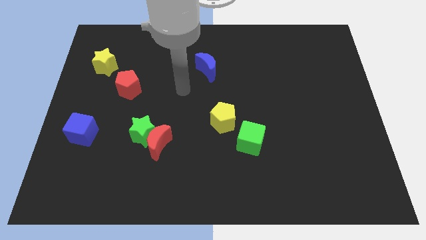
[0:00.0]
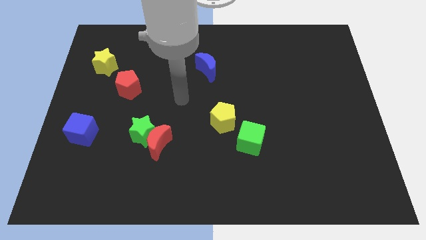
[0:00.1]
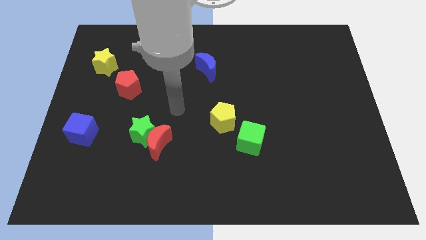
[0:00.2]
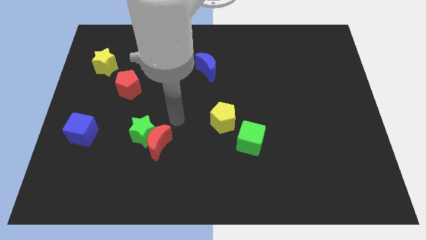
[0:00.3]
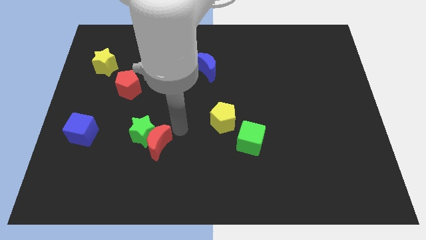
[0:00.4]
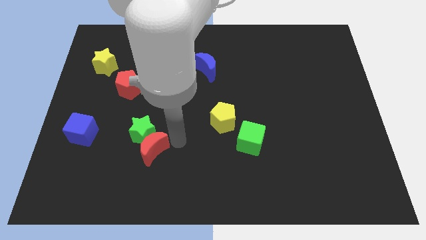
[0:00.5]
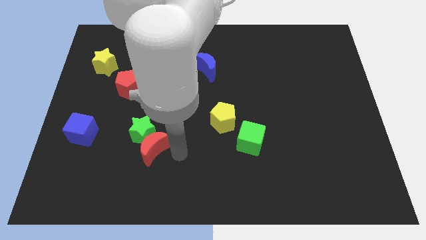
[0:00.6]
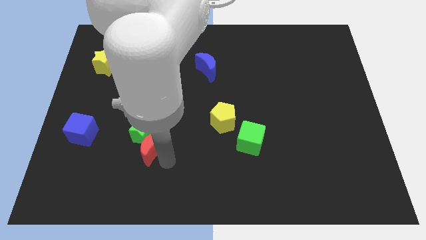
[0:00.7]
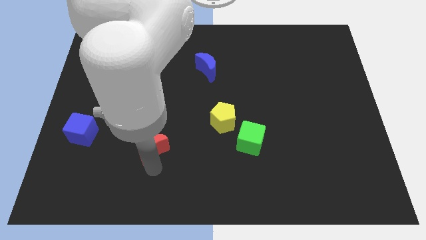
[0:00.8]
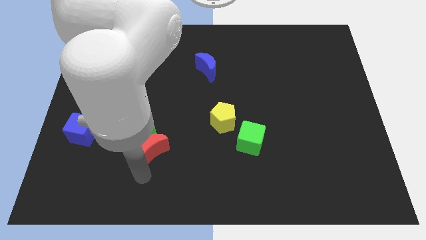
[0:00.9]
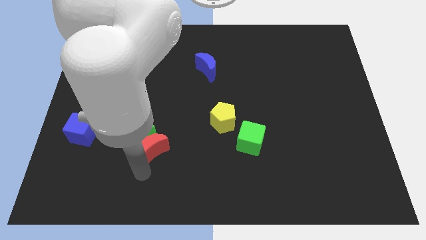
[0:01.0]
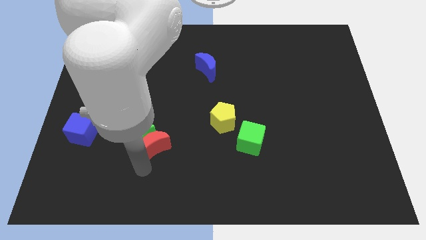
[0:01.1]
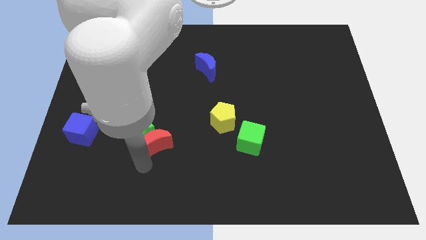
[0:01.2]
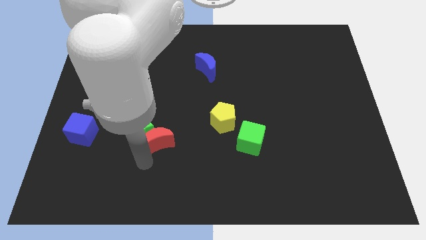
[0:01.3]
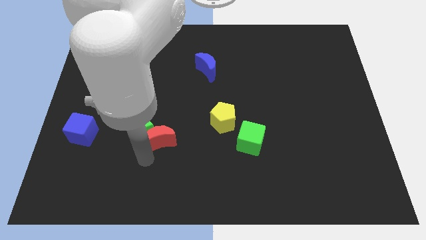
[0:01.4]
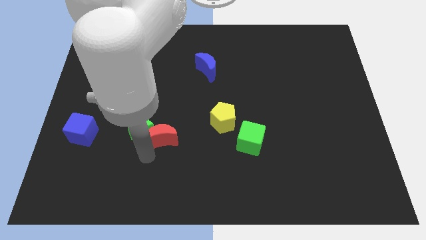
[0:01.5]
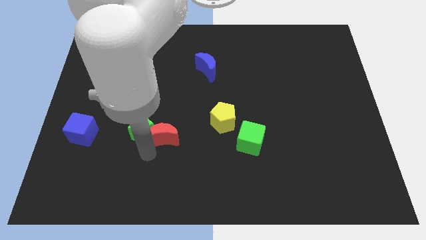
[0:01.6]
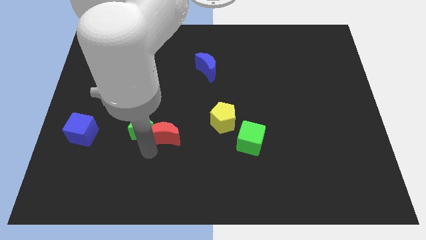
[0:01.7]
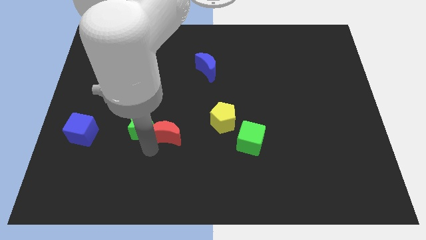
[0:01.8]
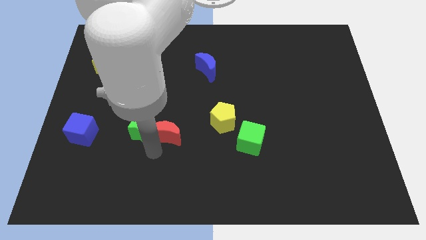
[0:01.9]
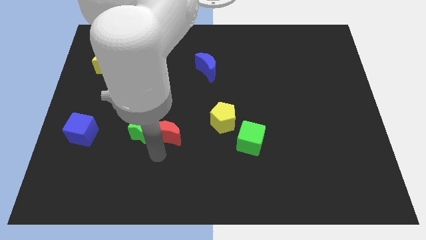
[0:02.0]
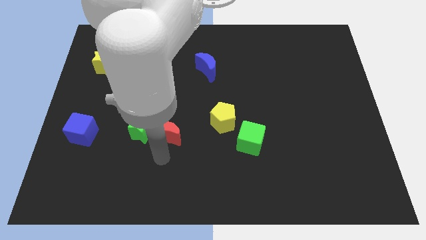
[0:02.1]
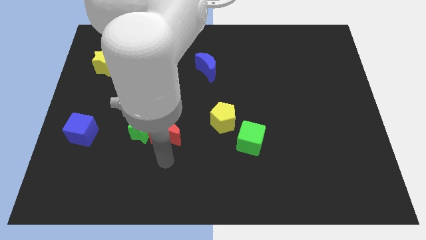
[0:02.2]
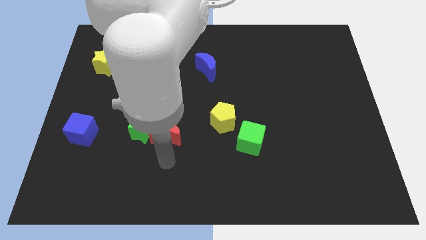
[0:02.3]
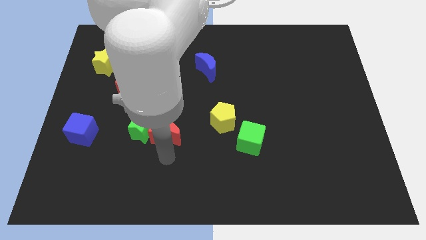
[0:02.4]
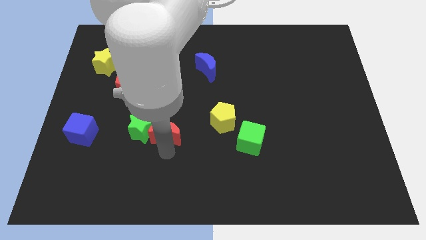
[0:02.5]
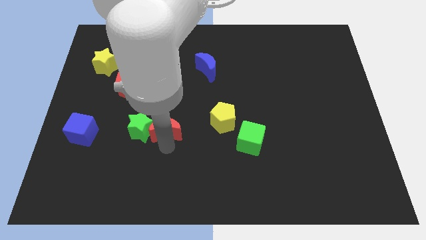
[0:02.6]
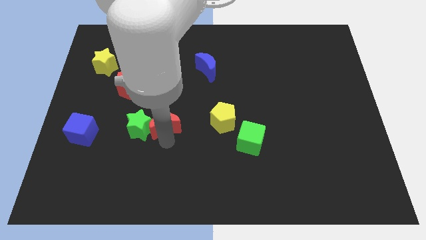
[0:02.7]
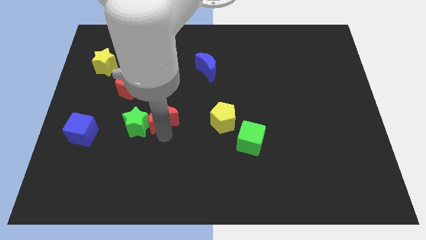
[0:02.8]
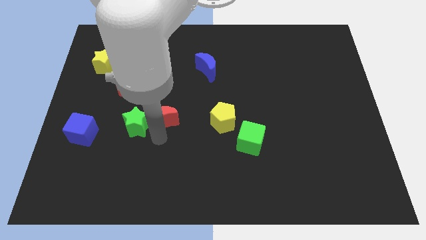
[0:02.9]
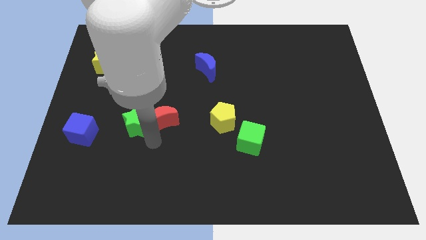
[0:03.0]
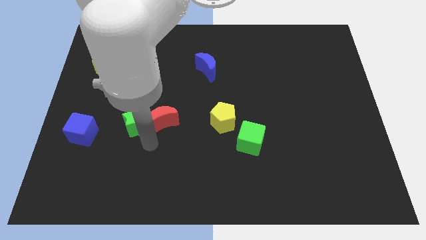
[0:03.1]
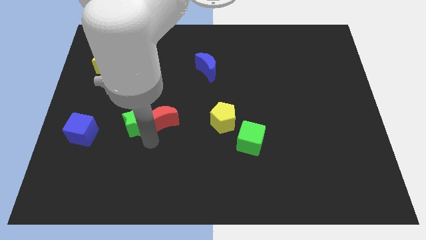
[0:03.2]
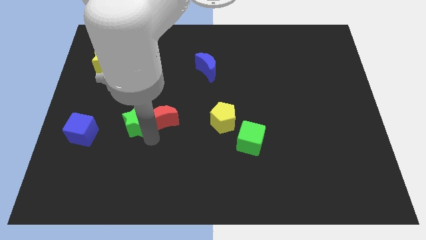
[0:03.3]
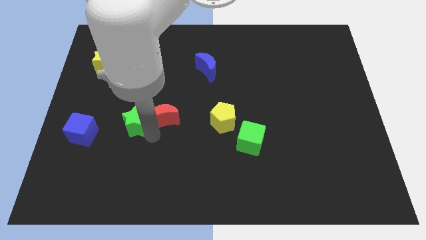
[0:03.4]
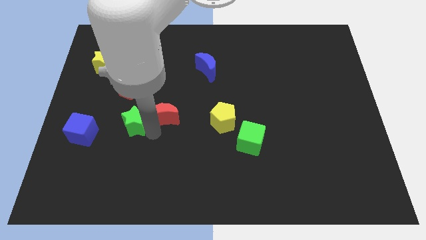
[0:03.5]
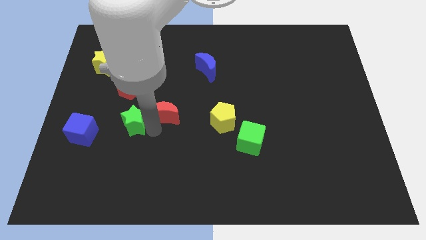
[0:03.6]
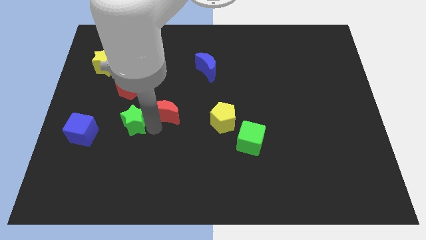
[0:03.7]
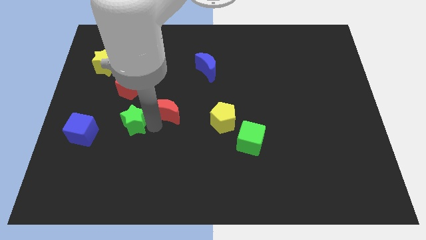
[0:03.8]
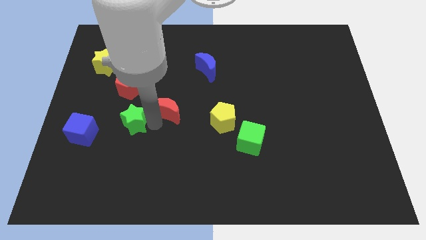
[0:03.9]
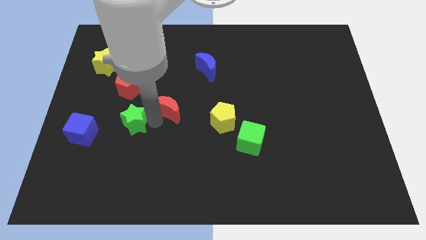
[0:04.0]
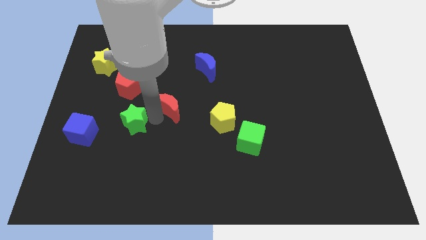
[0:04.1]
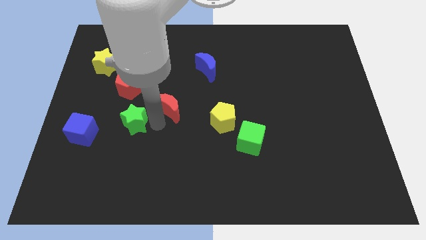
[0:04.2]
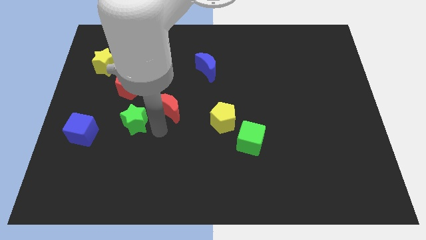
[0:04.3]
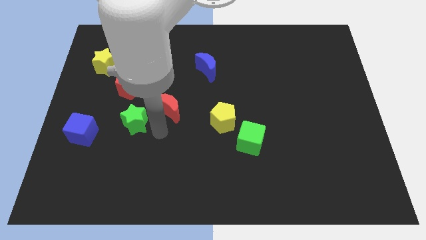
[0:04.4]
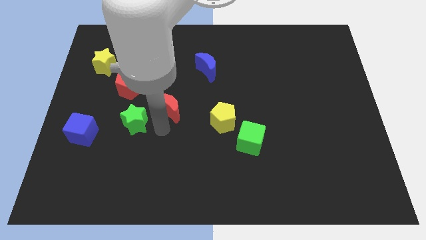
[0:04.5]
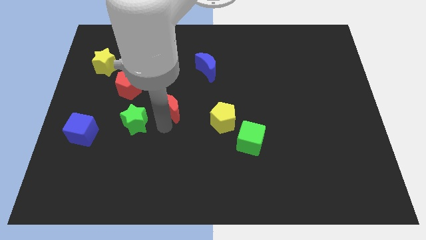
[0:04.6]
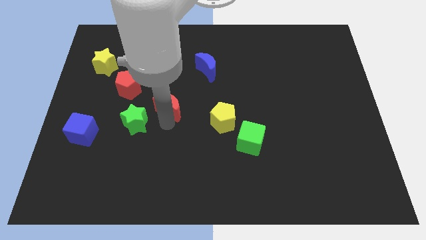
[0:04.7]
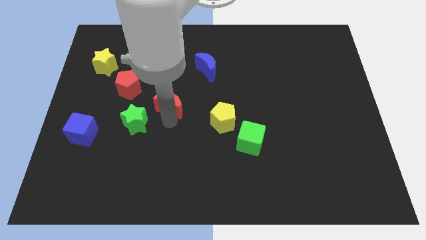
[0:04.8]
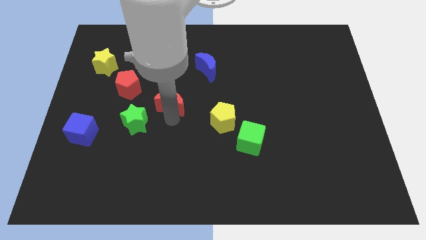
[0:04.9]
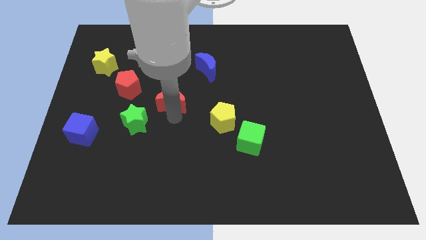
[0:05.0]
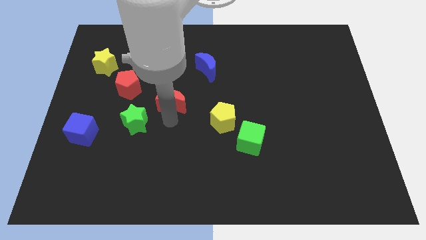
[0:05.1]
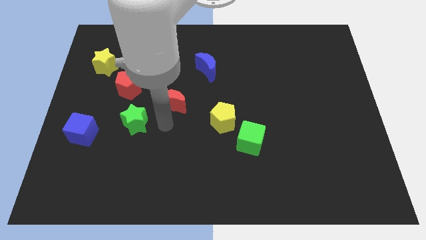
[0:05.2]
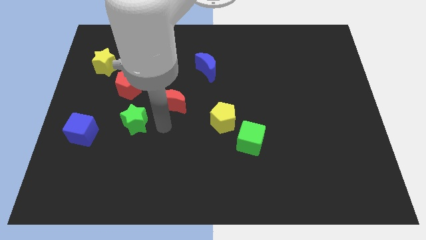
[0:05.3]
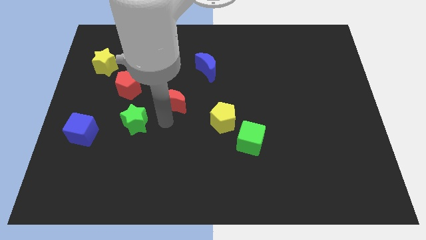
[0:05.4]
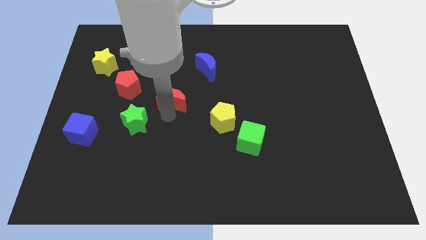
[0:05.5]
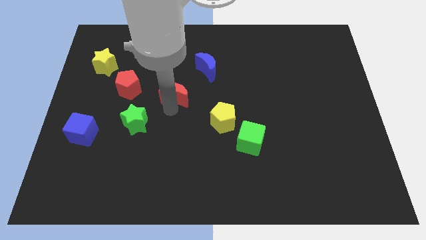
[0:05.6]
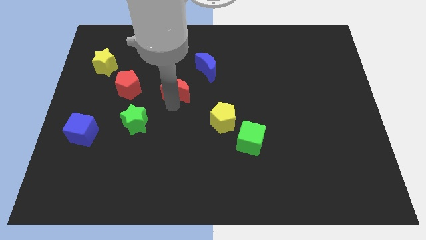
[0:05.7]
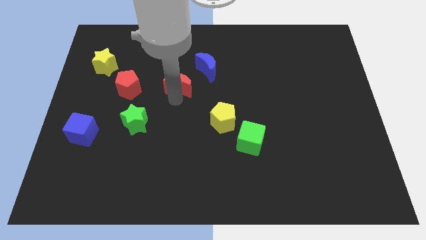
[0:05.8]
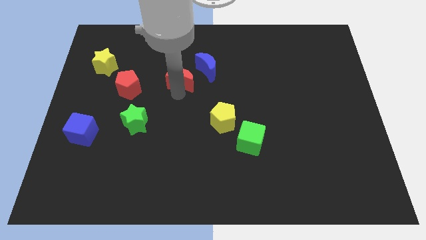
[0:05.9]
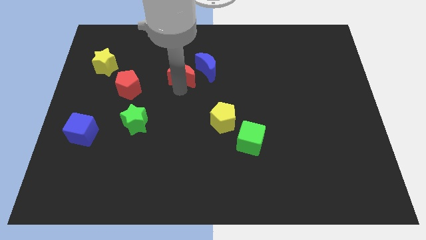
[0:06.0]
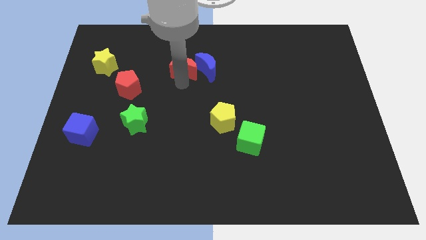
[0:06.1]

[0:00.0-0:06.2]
move the red moon diagonally up and to the left of the blue moon

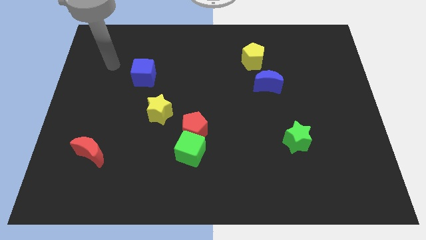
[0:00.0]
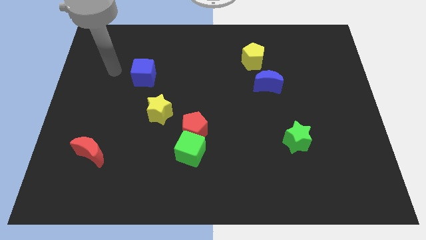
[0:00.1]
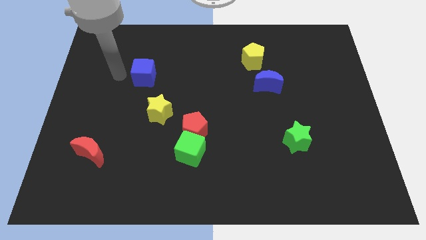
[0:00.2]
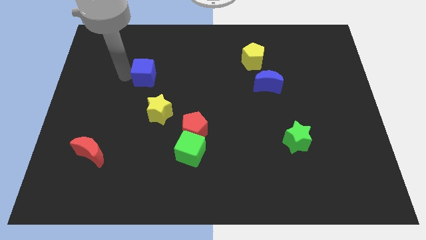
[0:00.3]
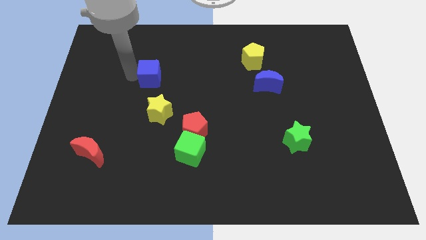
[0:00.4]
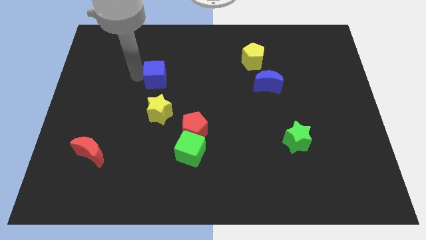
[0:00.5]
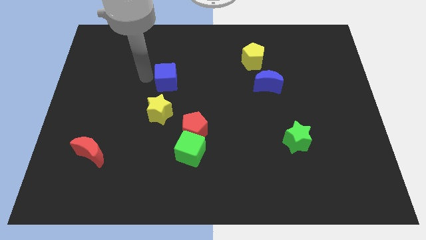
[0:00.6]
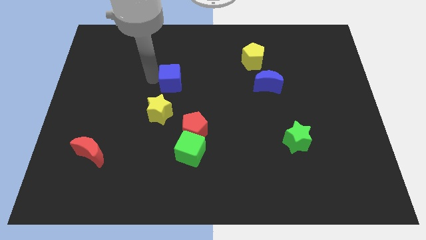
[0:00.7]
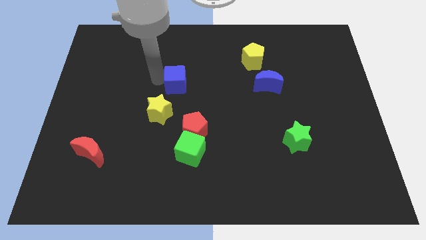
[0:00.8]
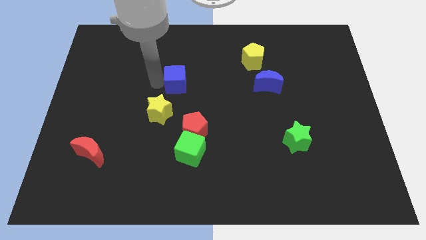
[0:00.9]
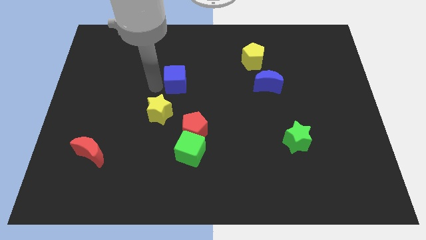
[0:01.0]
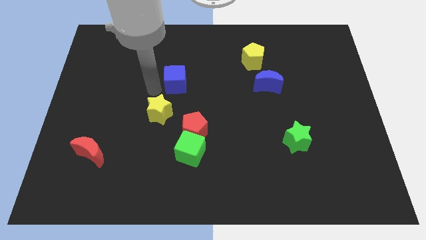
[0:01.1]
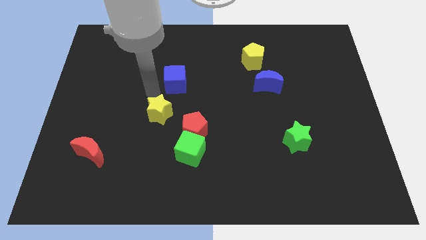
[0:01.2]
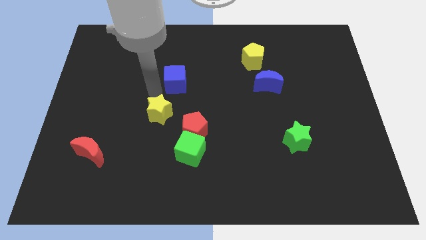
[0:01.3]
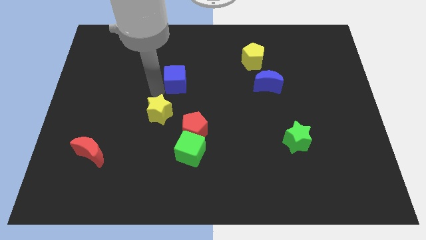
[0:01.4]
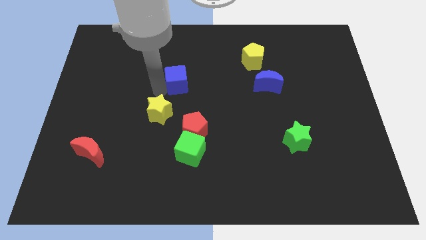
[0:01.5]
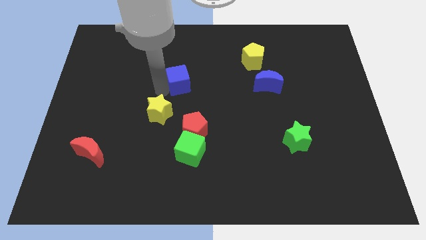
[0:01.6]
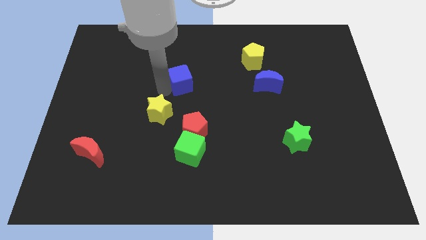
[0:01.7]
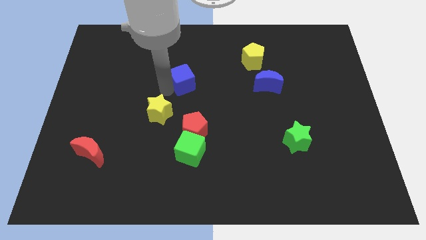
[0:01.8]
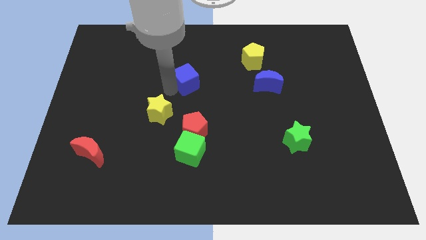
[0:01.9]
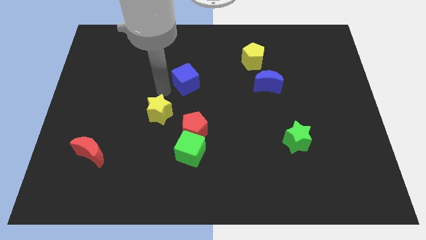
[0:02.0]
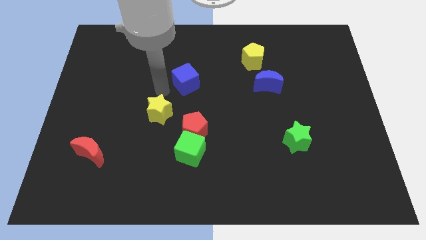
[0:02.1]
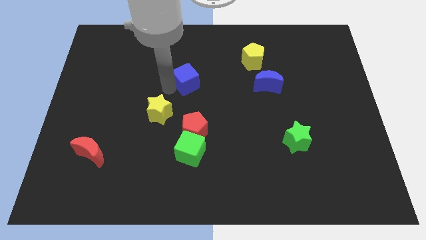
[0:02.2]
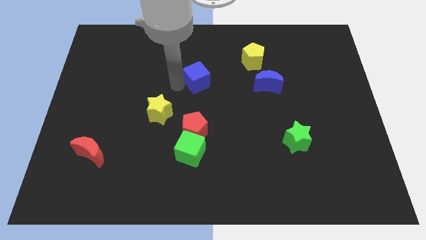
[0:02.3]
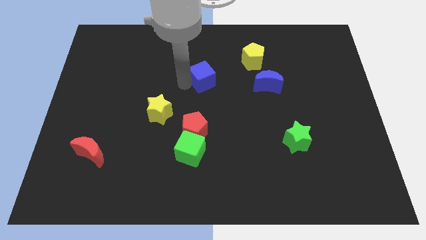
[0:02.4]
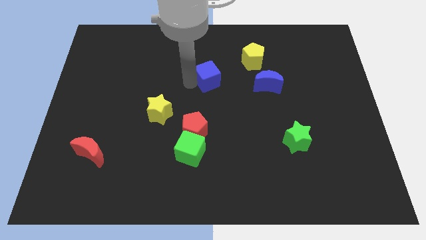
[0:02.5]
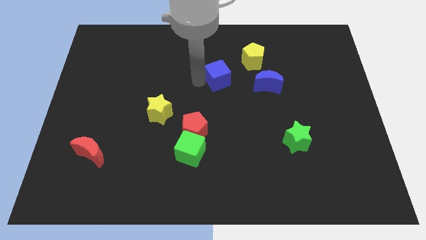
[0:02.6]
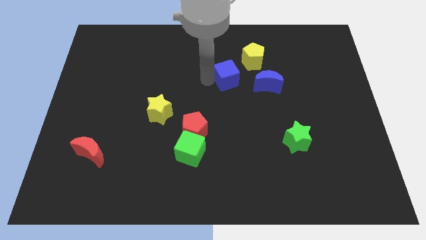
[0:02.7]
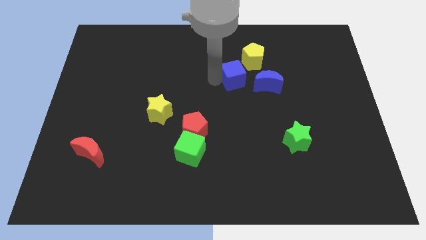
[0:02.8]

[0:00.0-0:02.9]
slide the blue cube diagonally up and to the left of the blue moon
